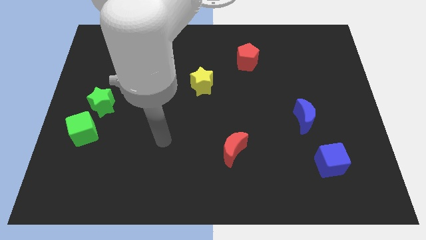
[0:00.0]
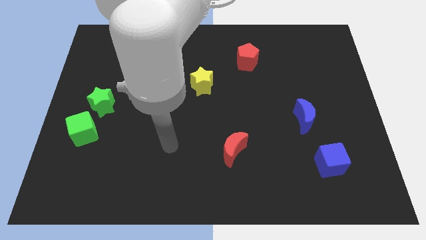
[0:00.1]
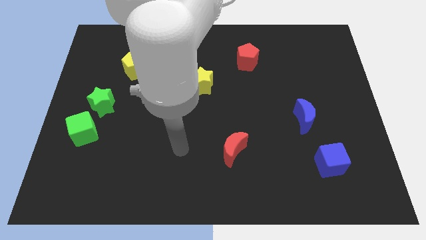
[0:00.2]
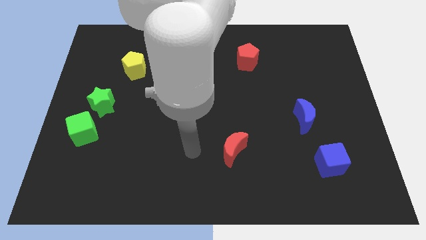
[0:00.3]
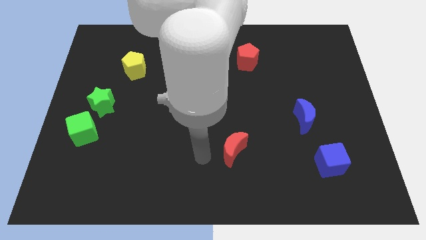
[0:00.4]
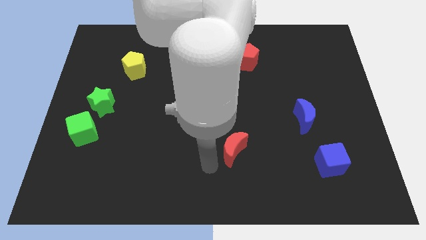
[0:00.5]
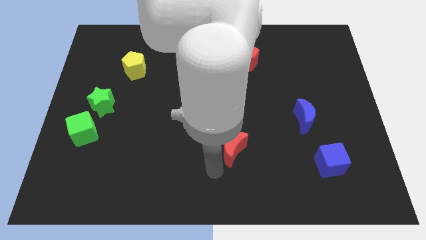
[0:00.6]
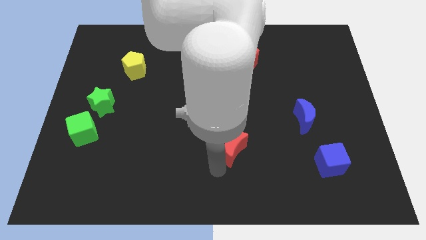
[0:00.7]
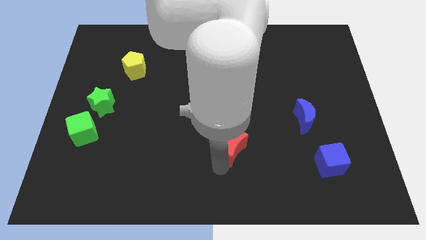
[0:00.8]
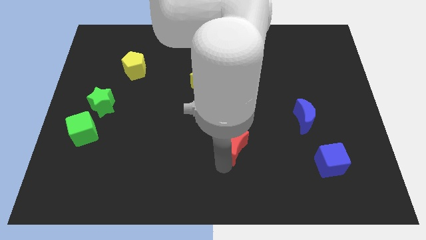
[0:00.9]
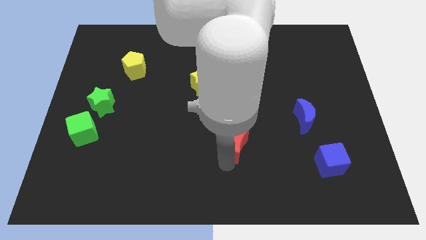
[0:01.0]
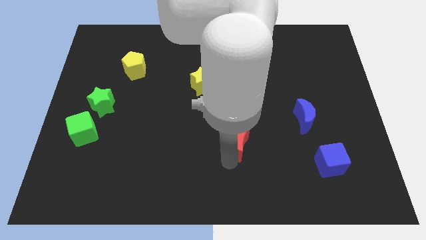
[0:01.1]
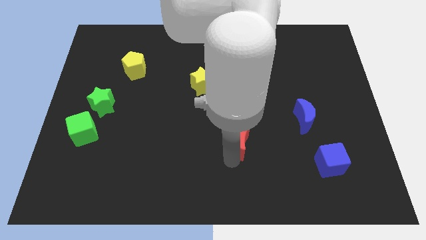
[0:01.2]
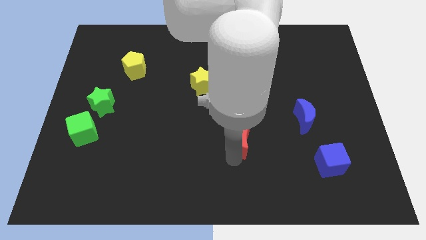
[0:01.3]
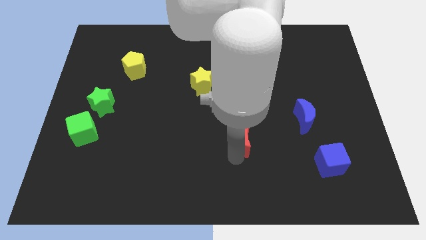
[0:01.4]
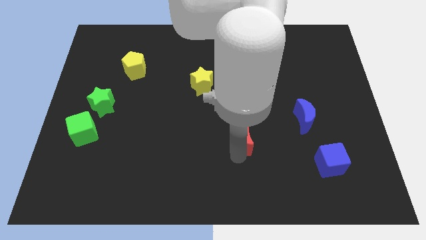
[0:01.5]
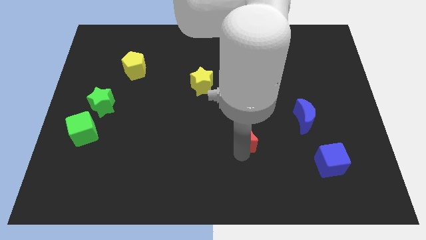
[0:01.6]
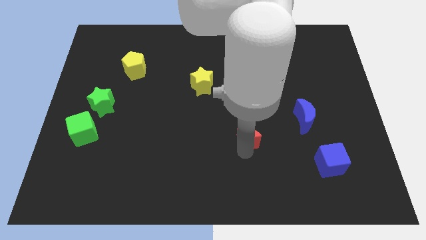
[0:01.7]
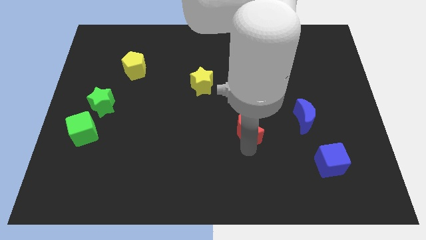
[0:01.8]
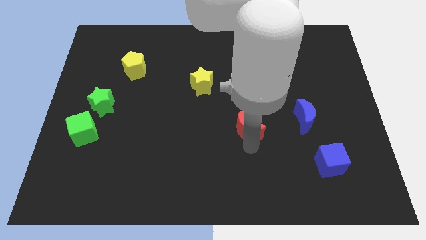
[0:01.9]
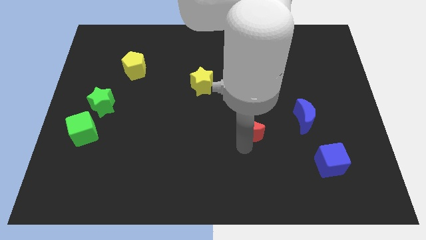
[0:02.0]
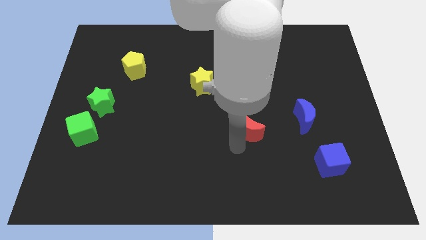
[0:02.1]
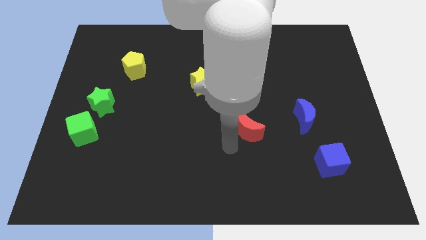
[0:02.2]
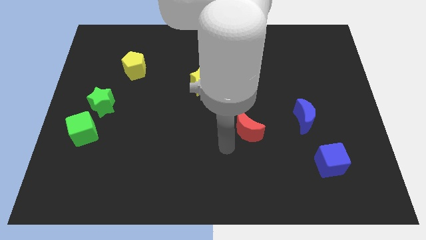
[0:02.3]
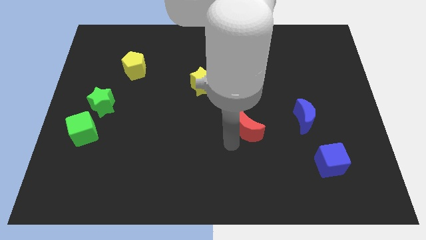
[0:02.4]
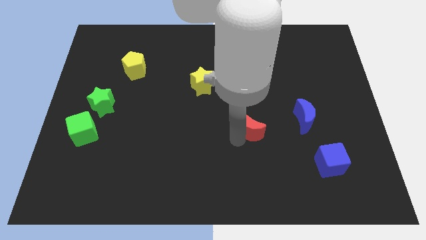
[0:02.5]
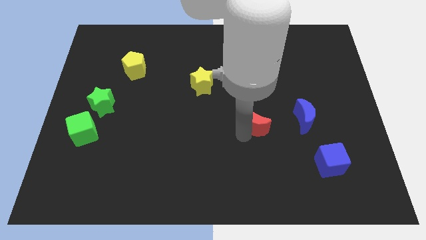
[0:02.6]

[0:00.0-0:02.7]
push the red moon diagonally upwards and to the right a little

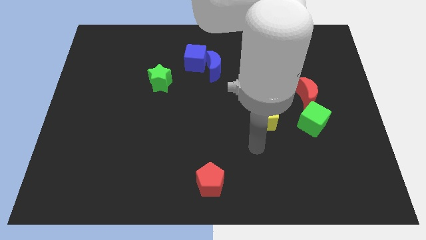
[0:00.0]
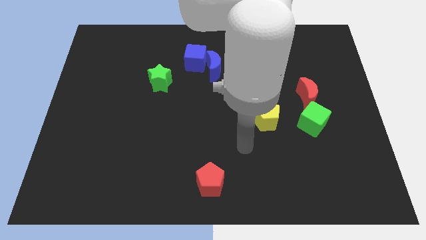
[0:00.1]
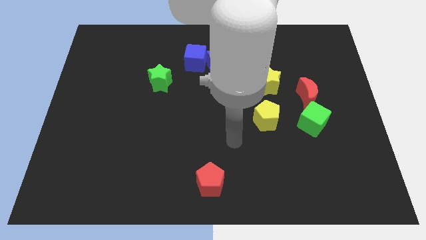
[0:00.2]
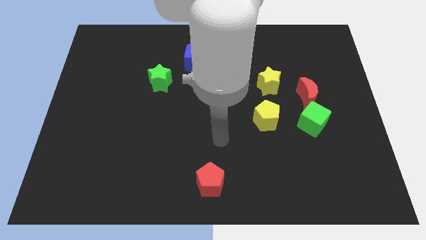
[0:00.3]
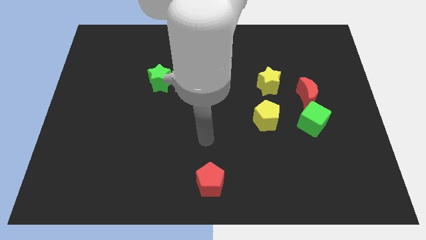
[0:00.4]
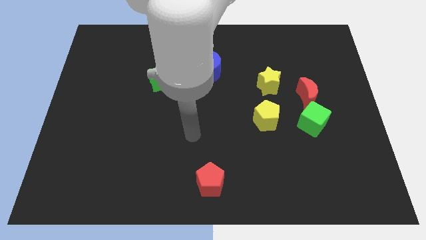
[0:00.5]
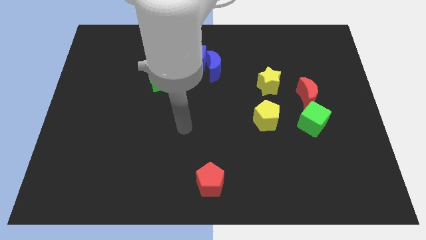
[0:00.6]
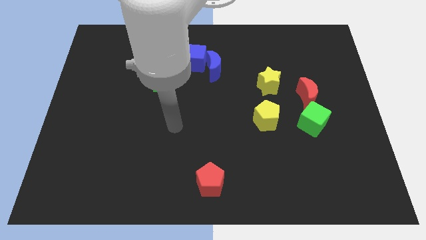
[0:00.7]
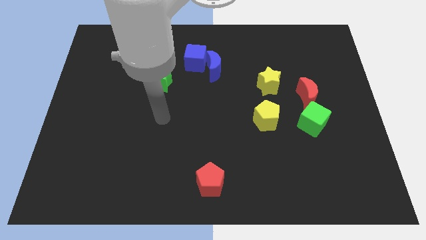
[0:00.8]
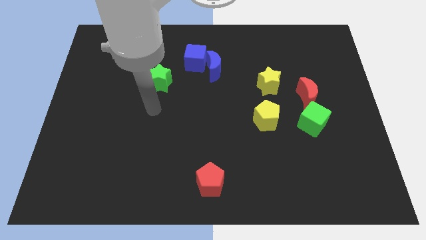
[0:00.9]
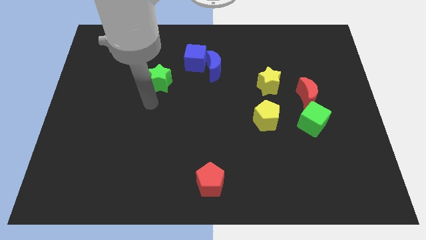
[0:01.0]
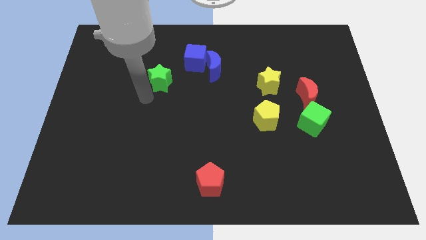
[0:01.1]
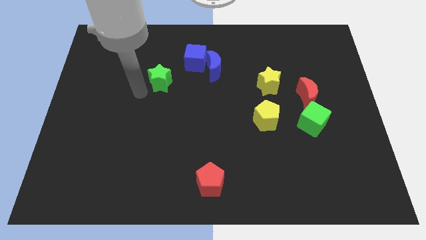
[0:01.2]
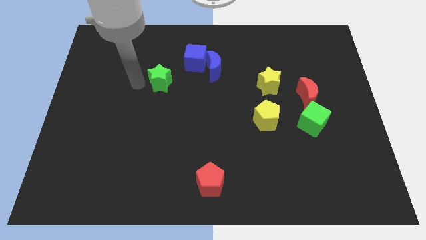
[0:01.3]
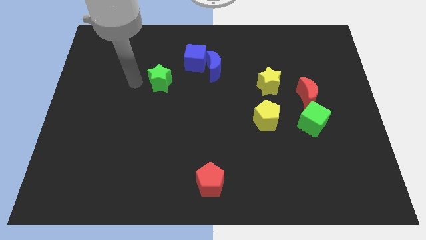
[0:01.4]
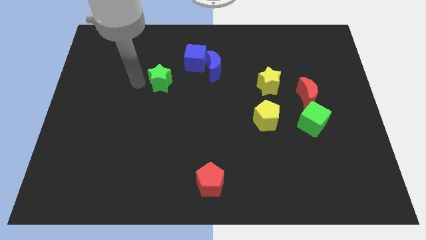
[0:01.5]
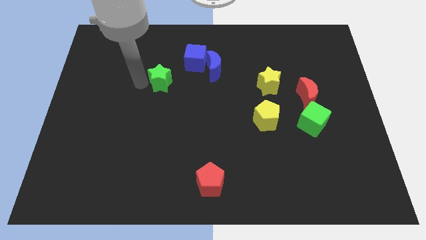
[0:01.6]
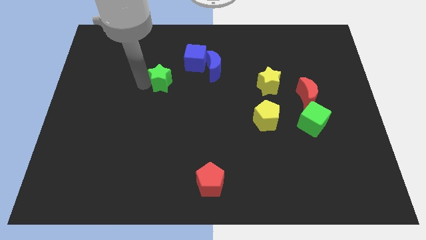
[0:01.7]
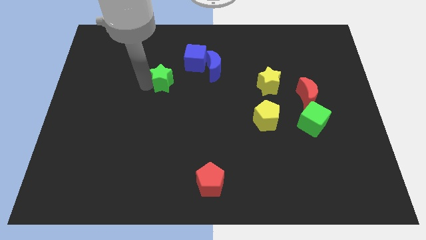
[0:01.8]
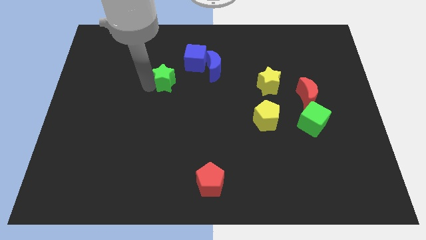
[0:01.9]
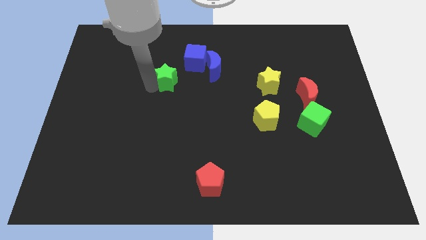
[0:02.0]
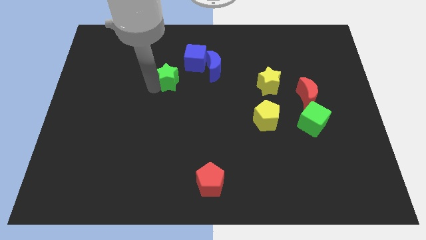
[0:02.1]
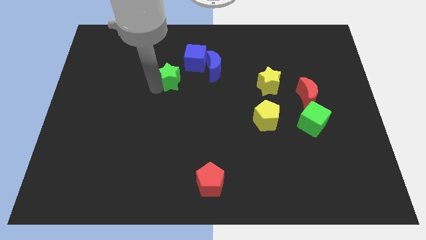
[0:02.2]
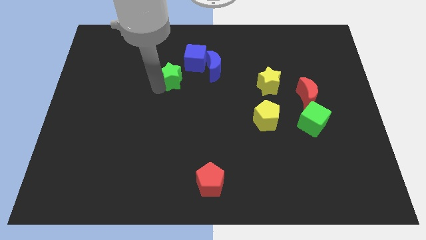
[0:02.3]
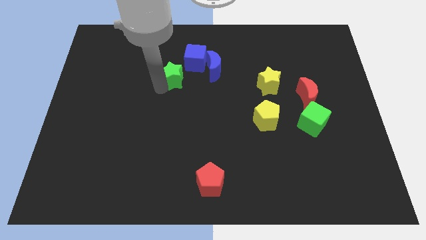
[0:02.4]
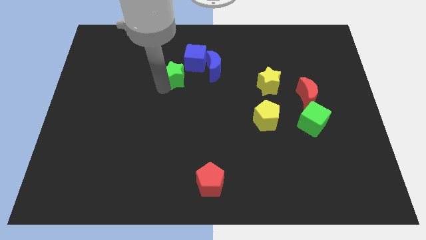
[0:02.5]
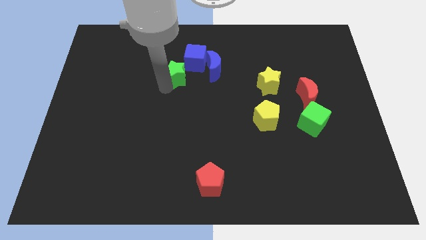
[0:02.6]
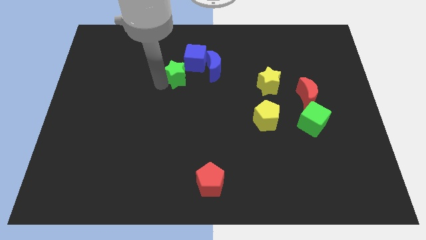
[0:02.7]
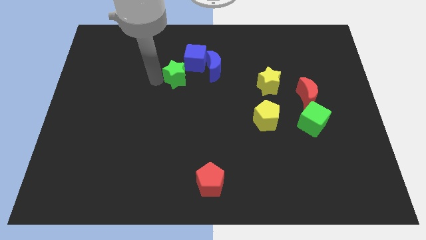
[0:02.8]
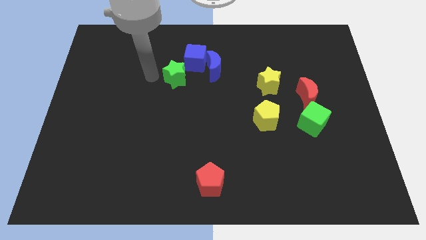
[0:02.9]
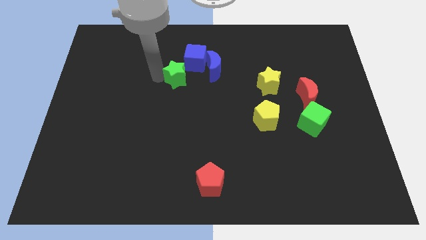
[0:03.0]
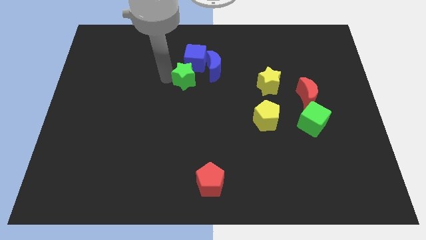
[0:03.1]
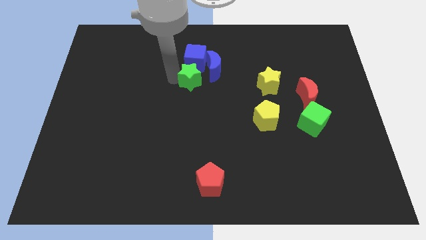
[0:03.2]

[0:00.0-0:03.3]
slide the green star right slightly

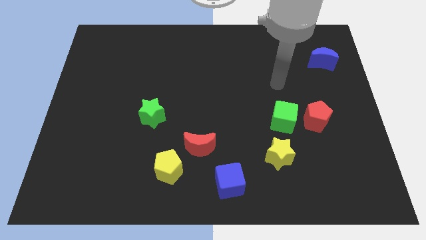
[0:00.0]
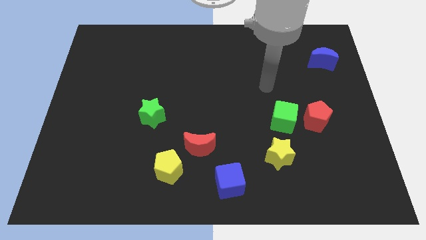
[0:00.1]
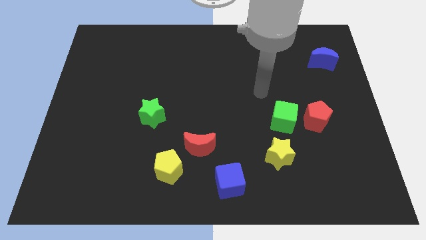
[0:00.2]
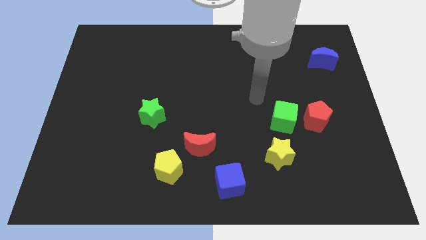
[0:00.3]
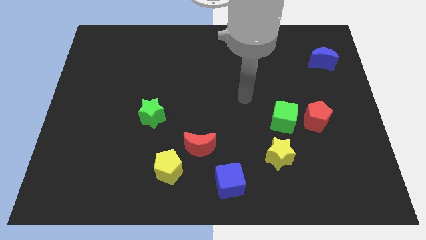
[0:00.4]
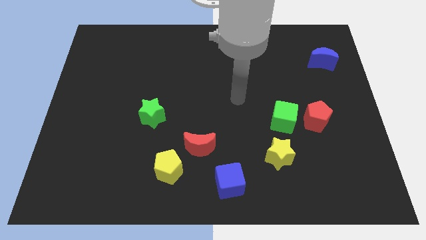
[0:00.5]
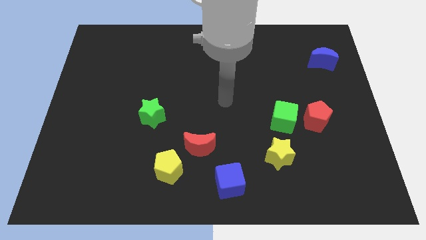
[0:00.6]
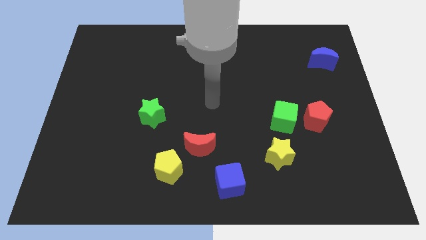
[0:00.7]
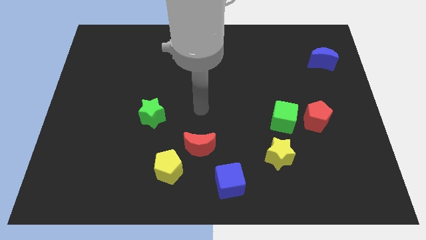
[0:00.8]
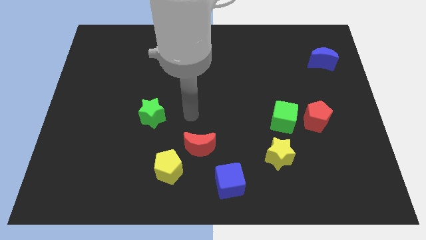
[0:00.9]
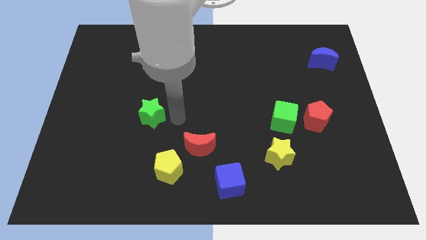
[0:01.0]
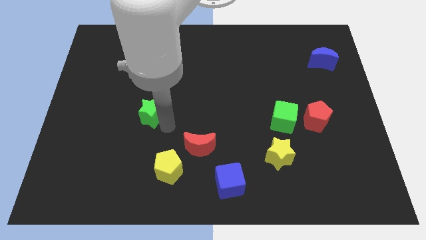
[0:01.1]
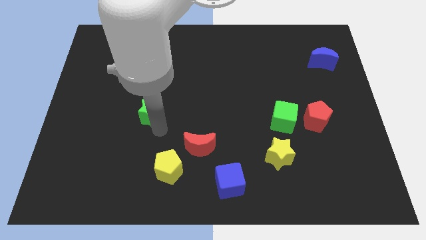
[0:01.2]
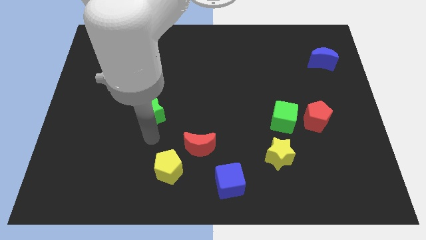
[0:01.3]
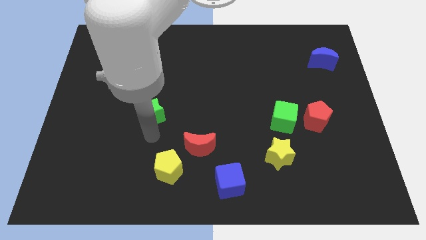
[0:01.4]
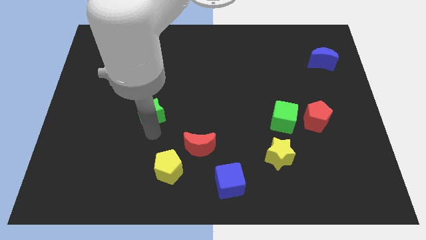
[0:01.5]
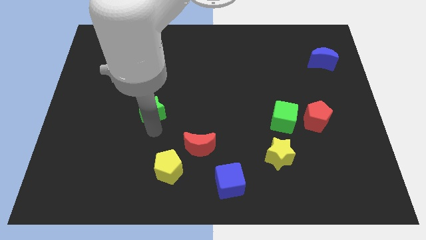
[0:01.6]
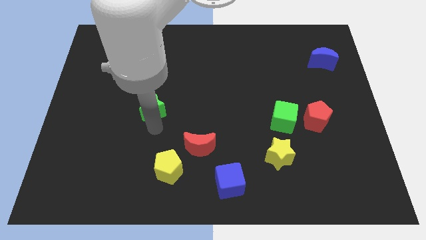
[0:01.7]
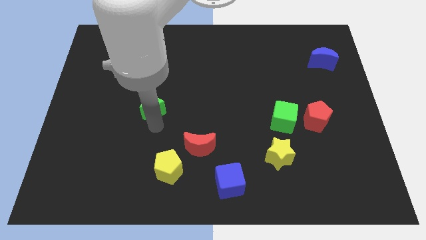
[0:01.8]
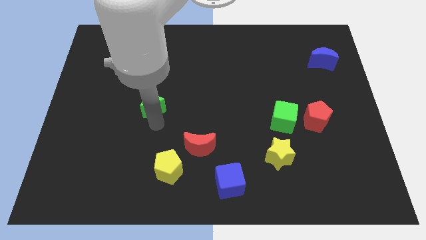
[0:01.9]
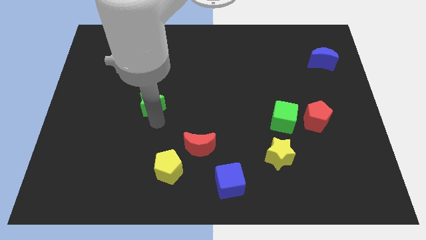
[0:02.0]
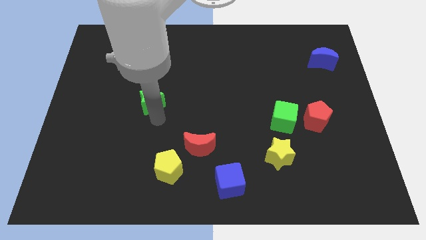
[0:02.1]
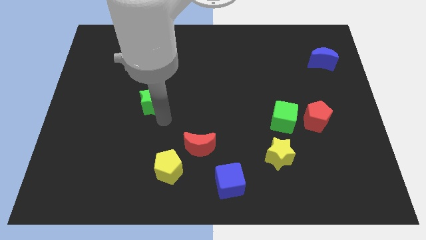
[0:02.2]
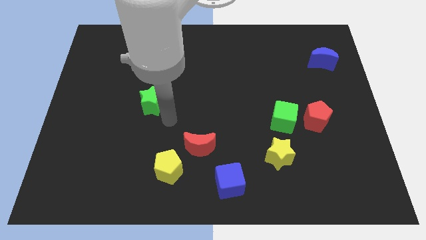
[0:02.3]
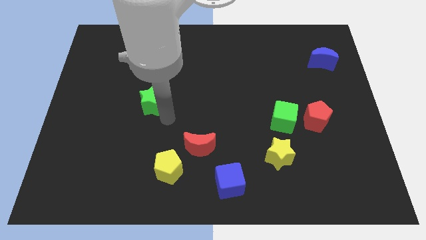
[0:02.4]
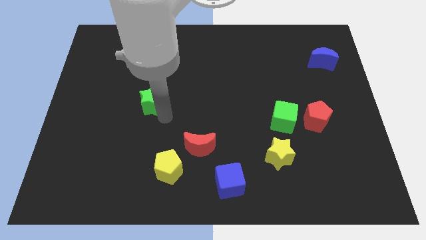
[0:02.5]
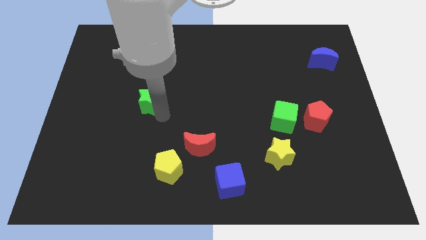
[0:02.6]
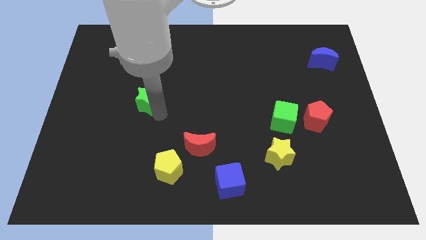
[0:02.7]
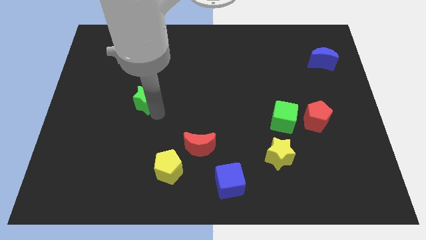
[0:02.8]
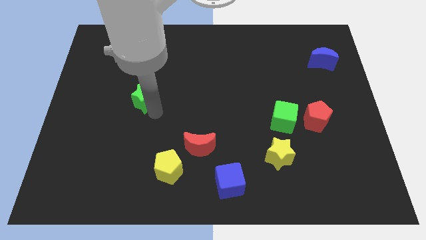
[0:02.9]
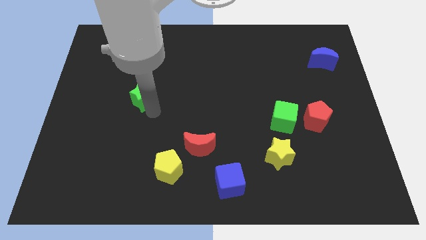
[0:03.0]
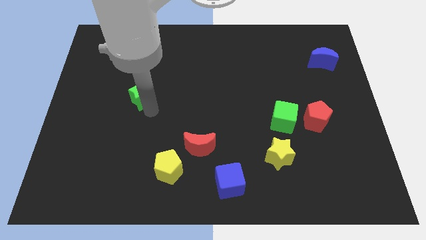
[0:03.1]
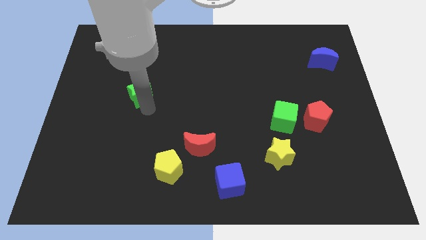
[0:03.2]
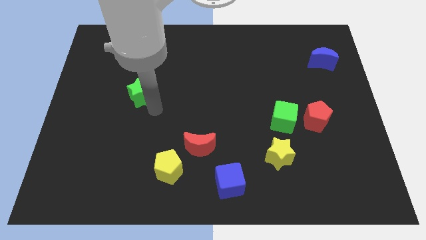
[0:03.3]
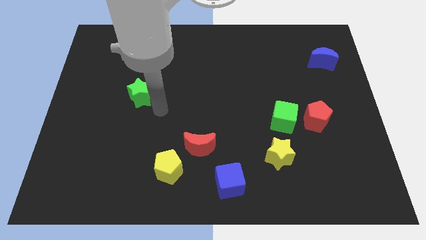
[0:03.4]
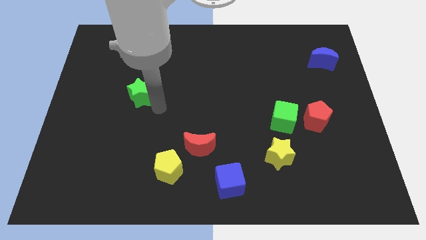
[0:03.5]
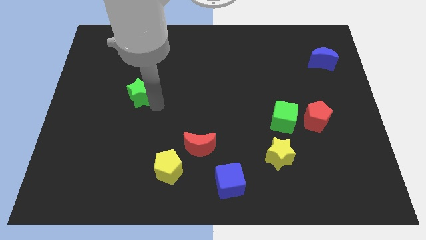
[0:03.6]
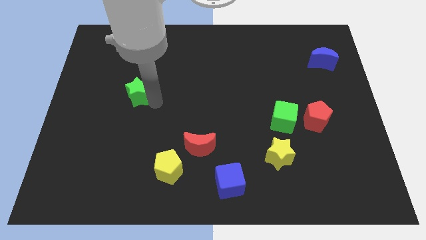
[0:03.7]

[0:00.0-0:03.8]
move the green star upwards and to the left a bit
